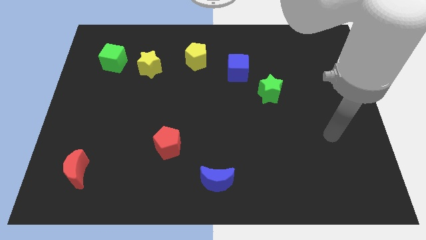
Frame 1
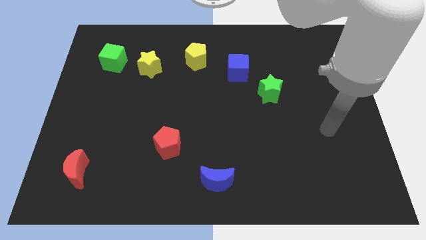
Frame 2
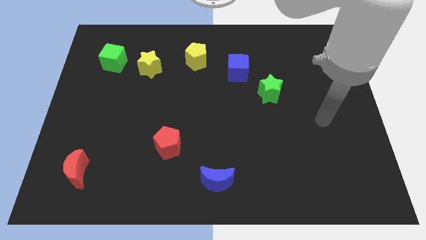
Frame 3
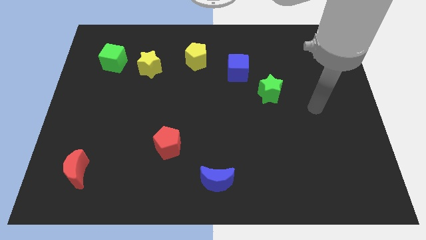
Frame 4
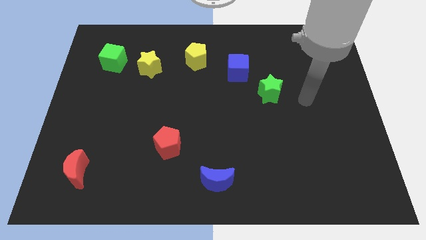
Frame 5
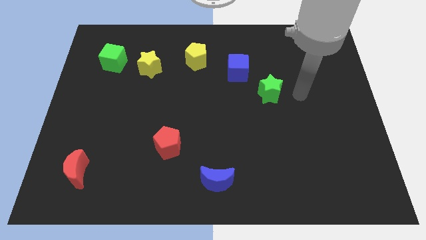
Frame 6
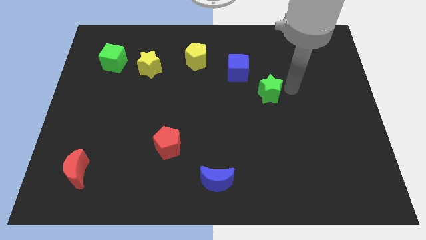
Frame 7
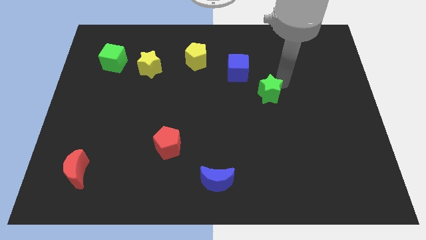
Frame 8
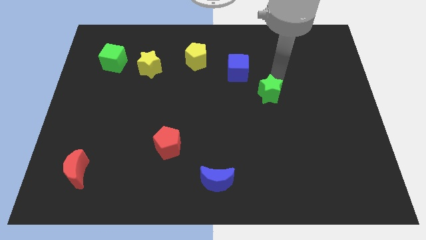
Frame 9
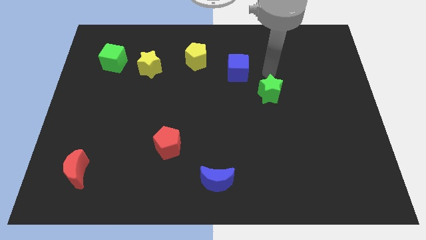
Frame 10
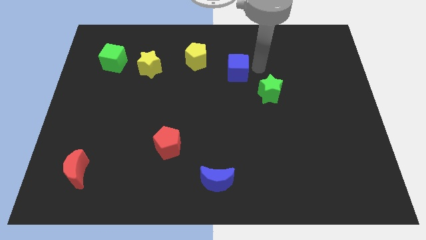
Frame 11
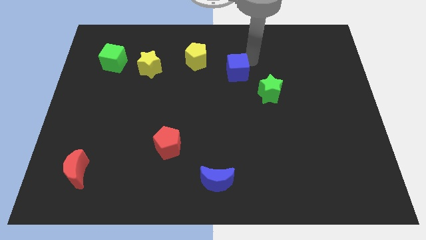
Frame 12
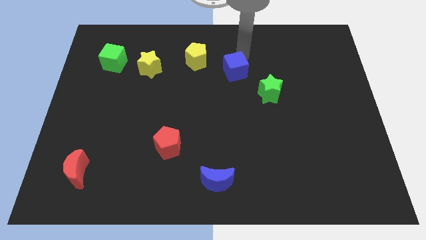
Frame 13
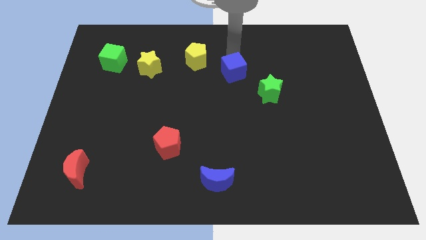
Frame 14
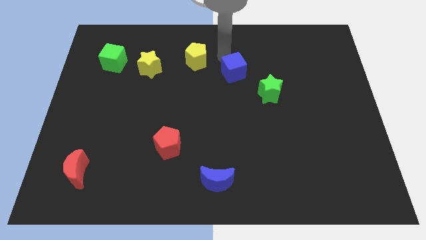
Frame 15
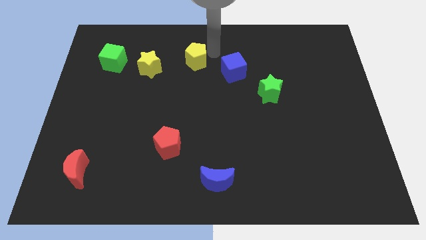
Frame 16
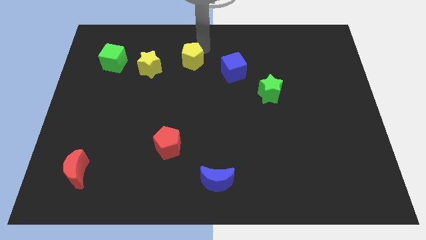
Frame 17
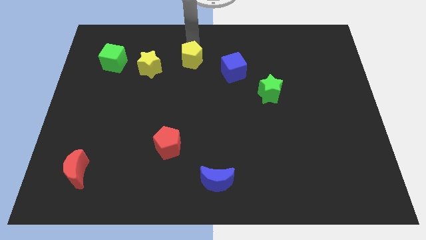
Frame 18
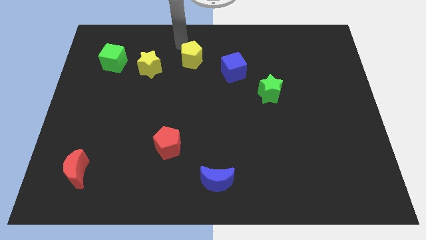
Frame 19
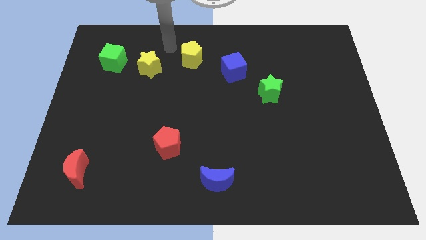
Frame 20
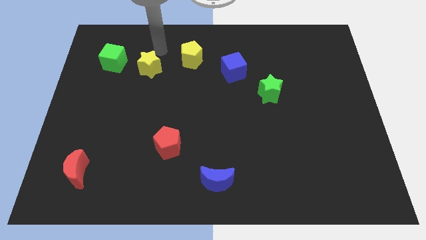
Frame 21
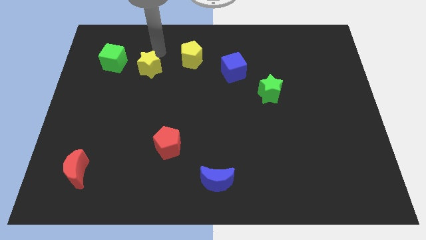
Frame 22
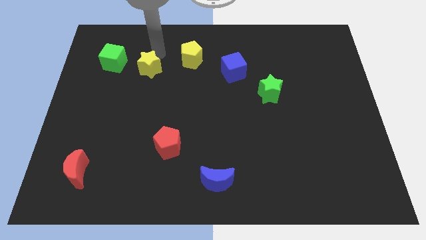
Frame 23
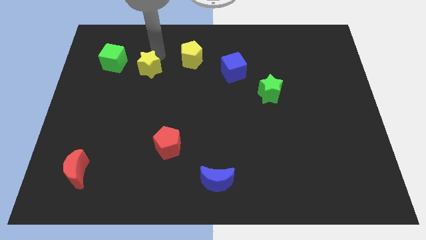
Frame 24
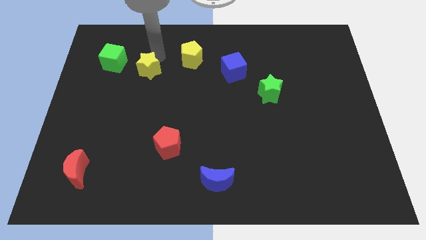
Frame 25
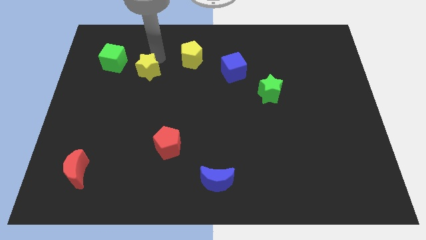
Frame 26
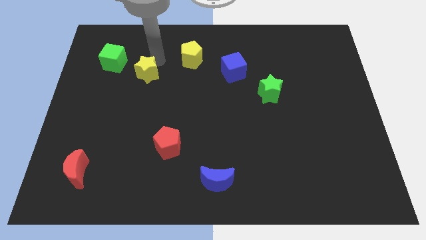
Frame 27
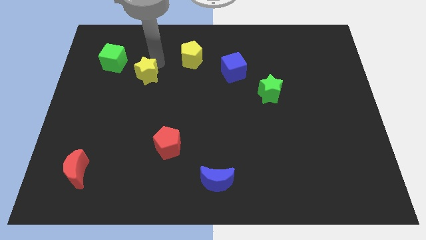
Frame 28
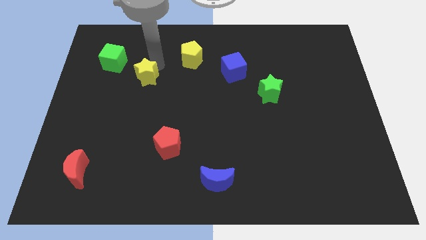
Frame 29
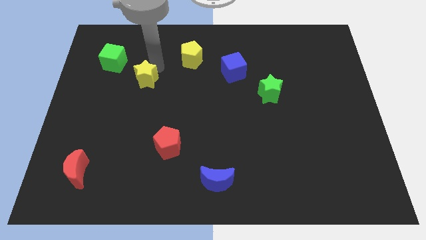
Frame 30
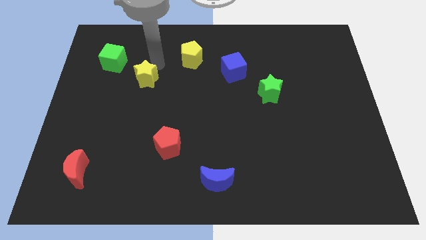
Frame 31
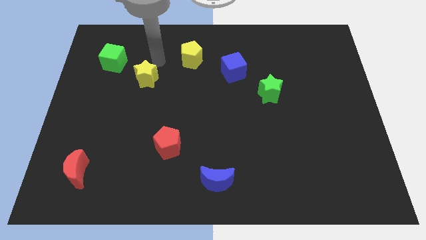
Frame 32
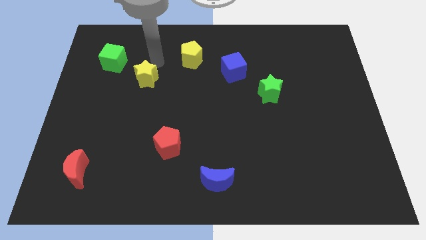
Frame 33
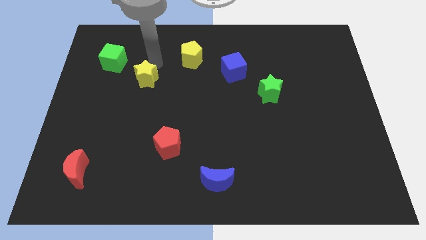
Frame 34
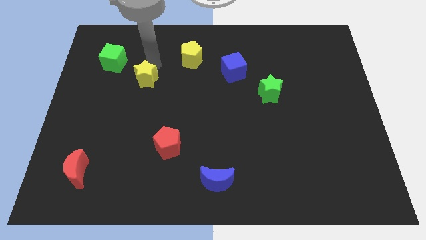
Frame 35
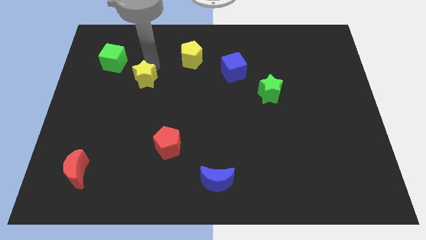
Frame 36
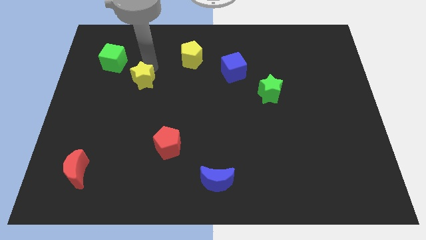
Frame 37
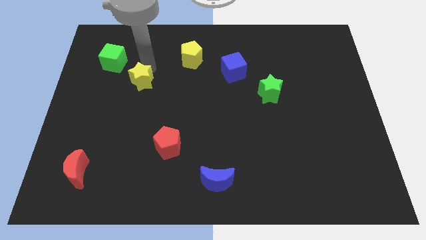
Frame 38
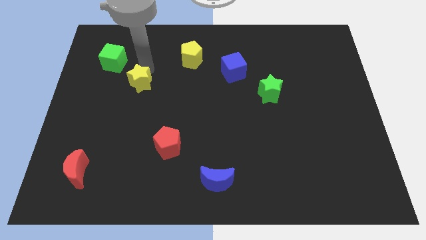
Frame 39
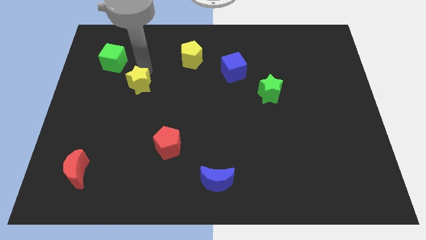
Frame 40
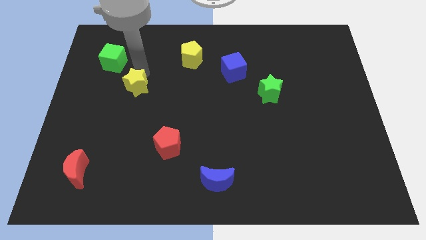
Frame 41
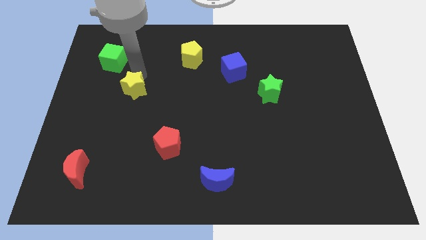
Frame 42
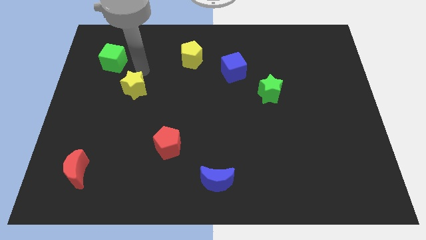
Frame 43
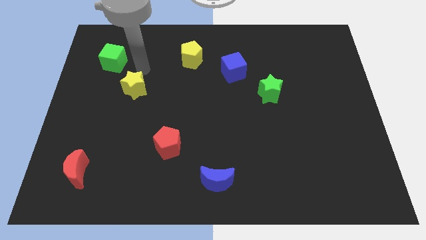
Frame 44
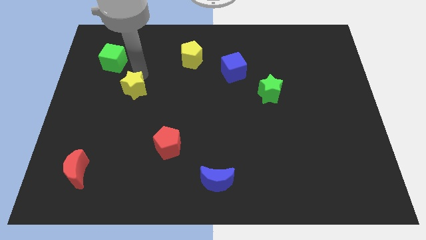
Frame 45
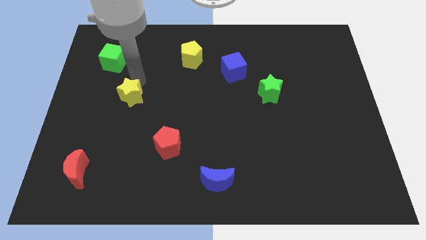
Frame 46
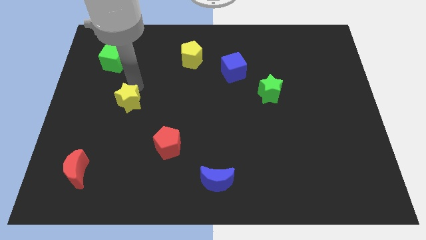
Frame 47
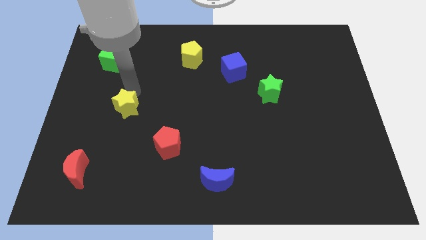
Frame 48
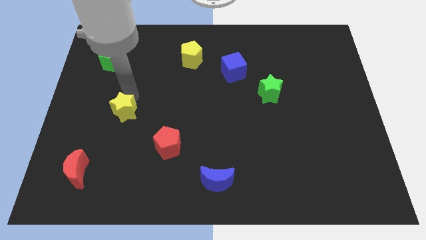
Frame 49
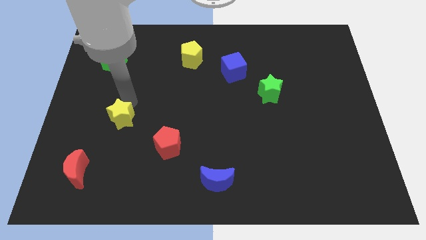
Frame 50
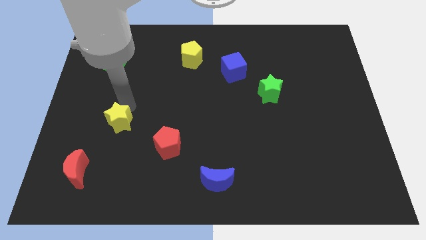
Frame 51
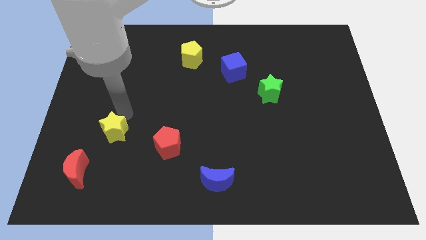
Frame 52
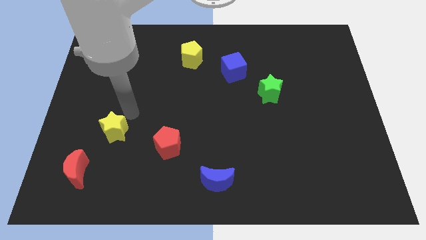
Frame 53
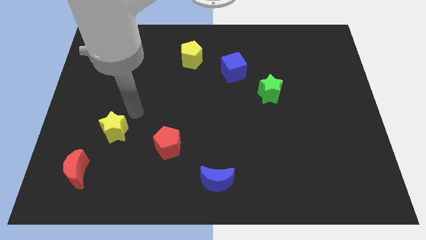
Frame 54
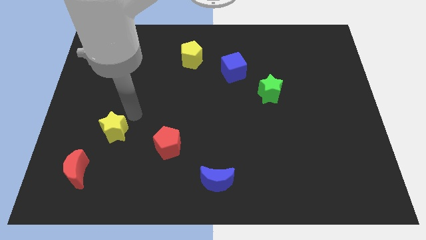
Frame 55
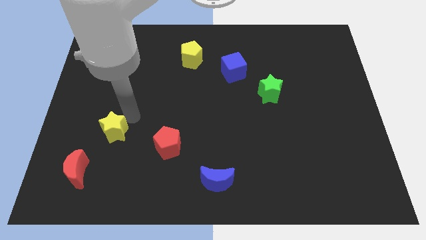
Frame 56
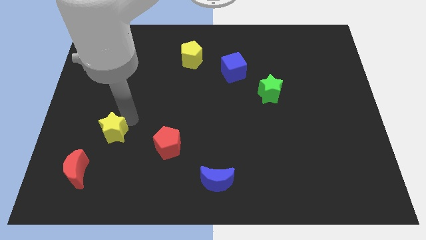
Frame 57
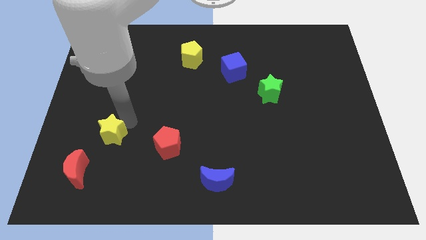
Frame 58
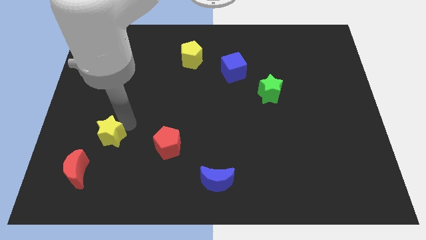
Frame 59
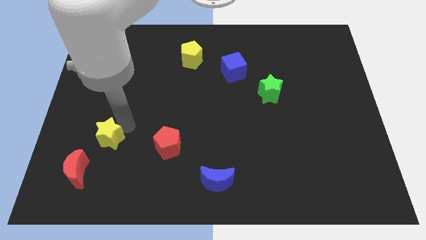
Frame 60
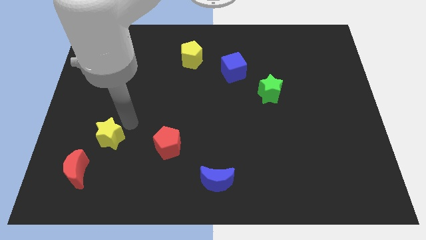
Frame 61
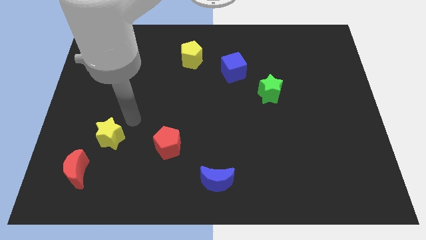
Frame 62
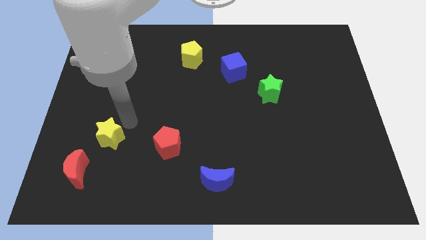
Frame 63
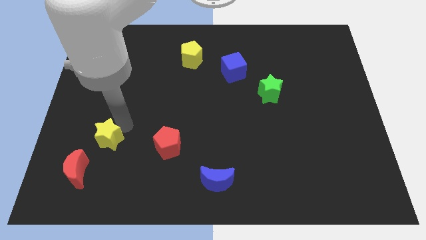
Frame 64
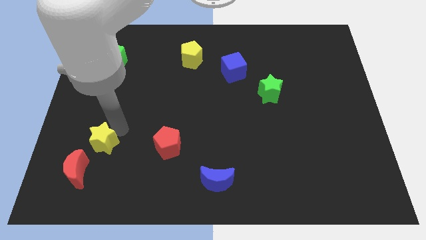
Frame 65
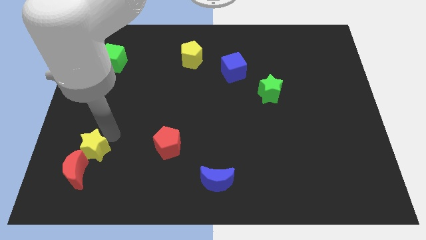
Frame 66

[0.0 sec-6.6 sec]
push the yellow star close to the red moon
